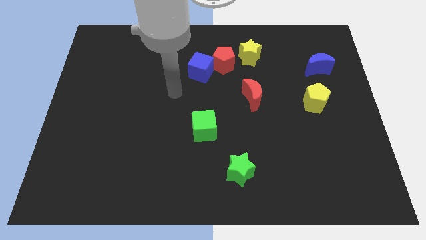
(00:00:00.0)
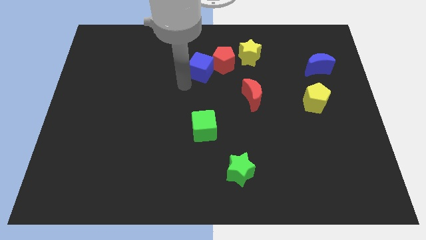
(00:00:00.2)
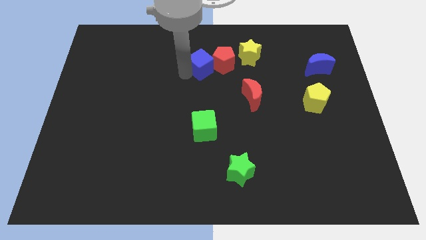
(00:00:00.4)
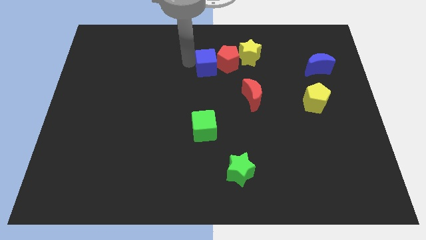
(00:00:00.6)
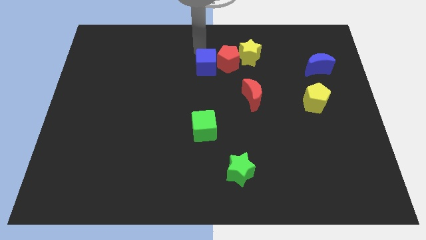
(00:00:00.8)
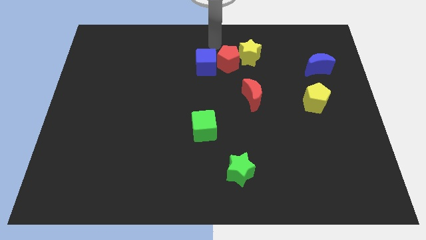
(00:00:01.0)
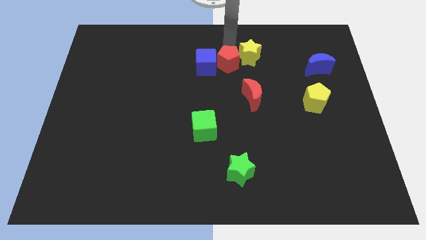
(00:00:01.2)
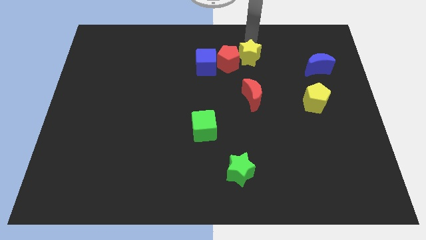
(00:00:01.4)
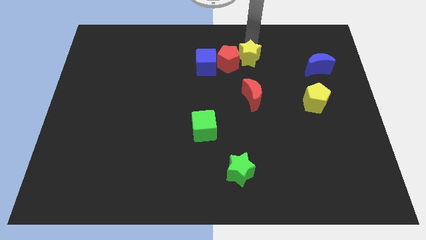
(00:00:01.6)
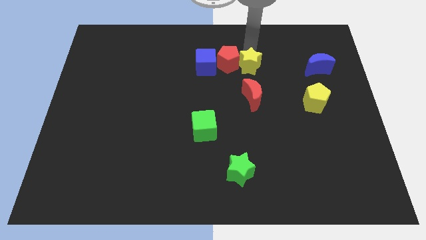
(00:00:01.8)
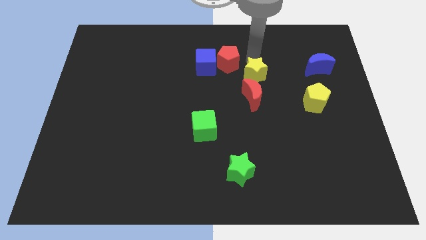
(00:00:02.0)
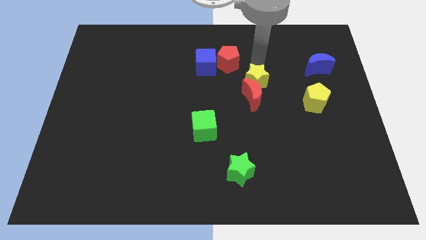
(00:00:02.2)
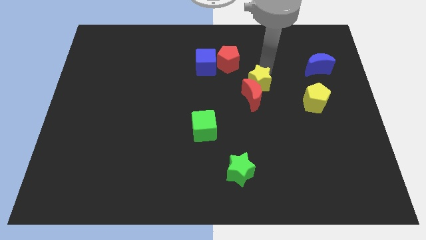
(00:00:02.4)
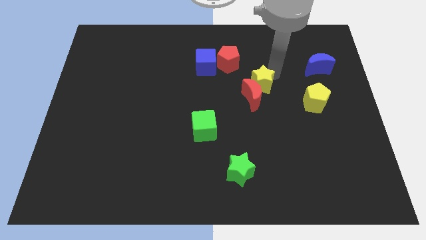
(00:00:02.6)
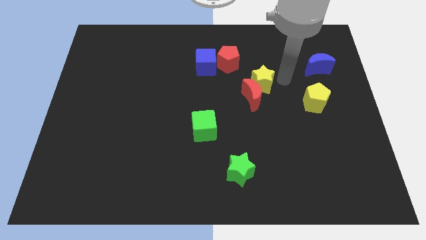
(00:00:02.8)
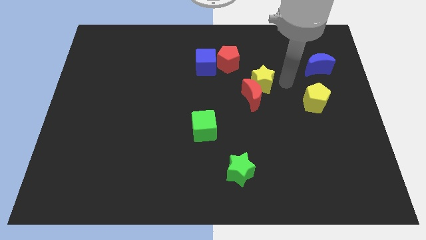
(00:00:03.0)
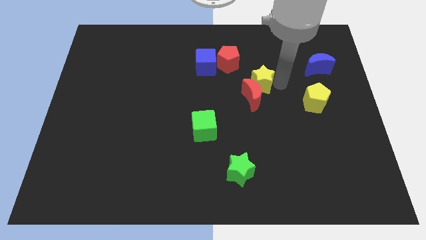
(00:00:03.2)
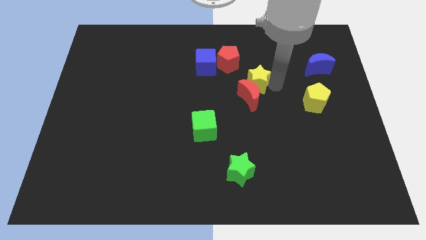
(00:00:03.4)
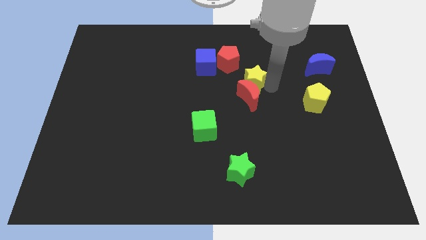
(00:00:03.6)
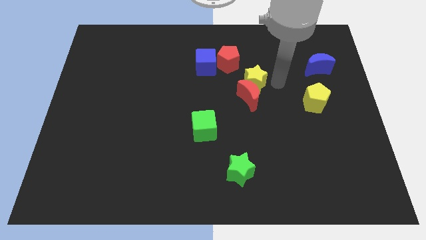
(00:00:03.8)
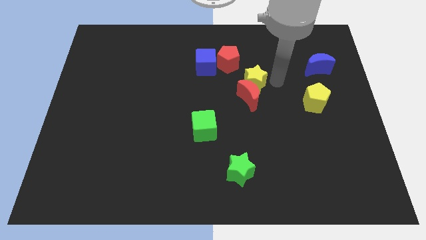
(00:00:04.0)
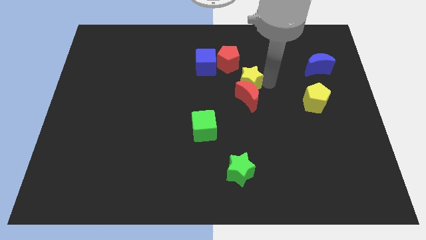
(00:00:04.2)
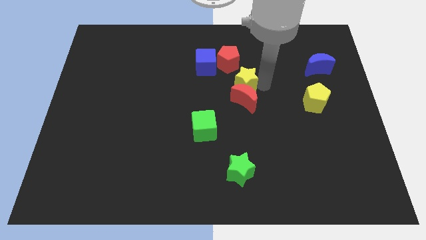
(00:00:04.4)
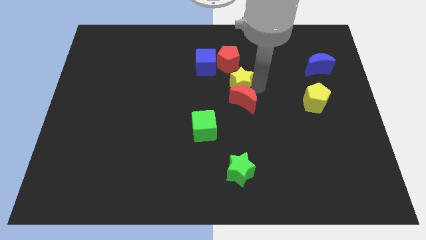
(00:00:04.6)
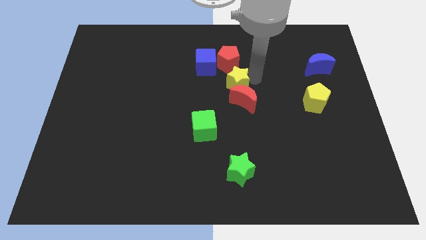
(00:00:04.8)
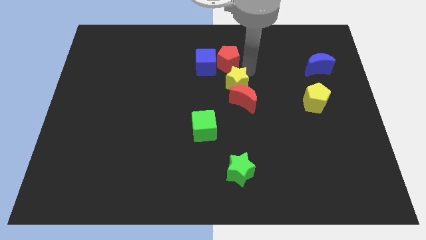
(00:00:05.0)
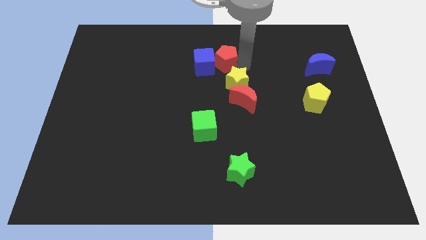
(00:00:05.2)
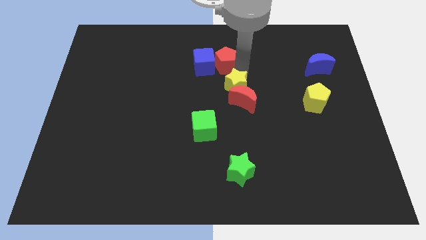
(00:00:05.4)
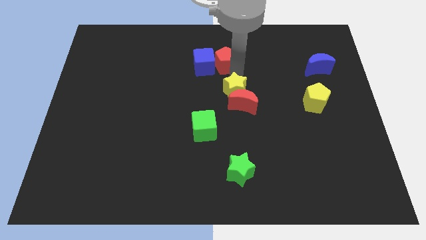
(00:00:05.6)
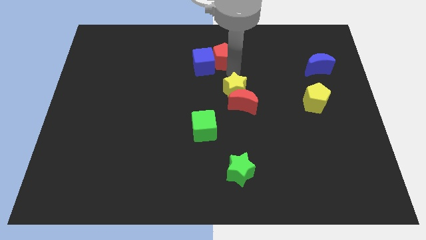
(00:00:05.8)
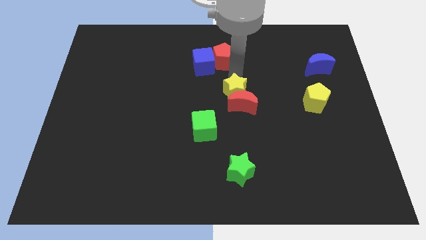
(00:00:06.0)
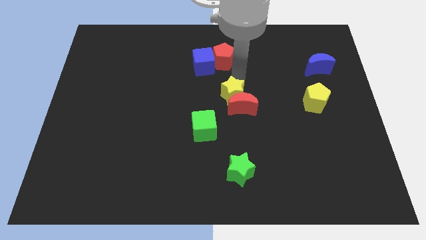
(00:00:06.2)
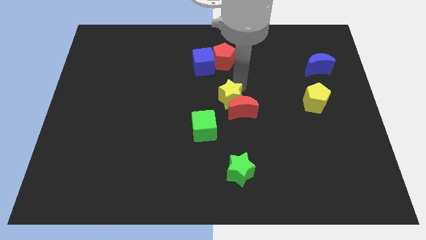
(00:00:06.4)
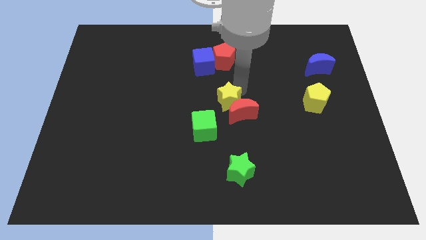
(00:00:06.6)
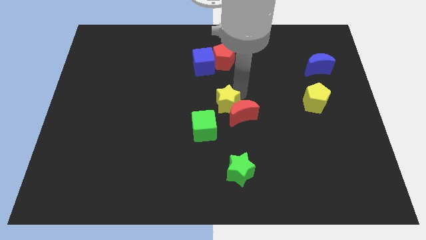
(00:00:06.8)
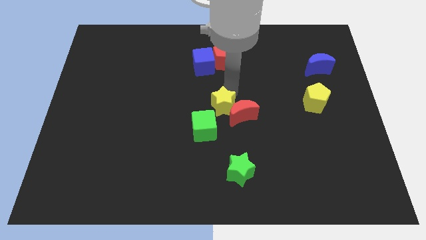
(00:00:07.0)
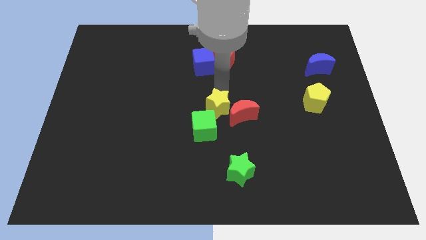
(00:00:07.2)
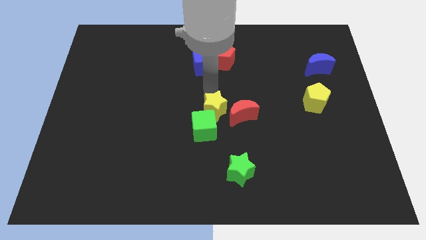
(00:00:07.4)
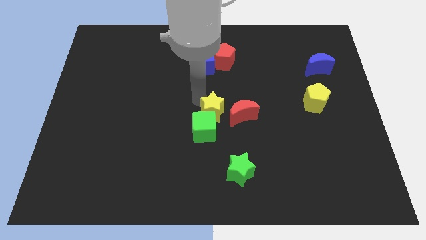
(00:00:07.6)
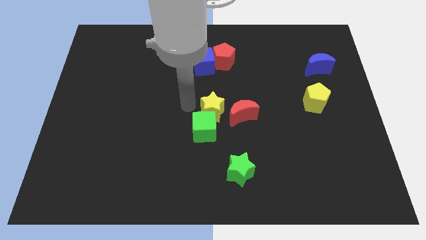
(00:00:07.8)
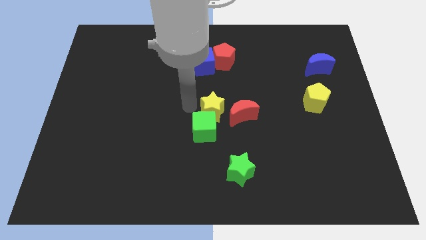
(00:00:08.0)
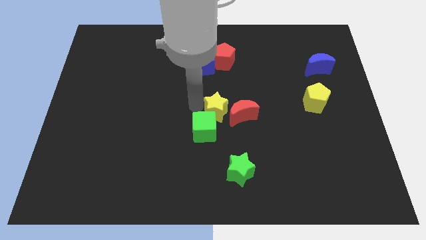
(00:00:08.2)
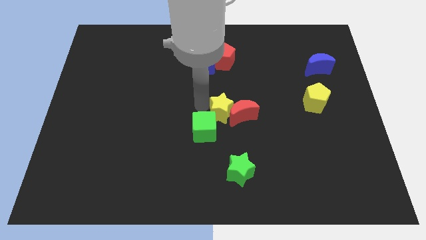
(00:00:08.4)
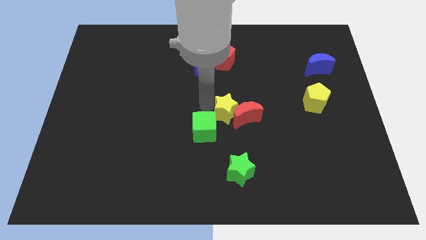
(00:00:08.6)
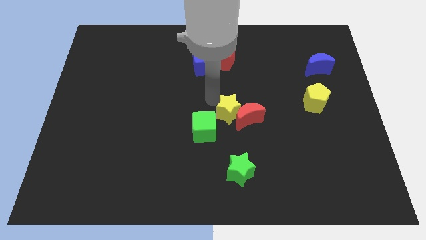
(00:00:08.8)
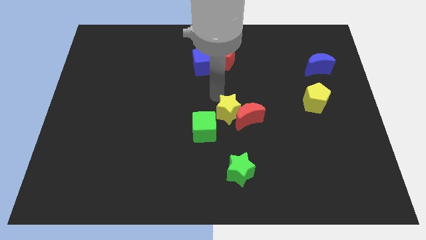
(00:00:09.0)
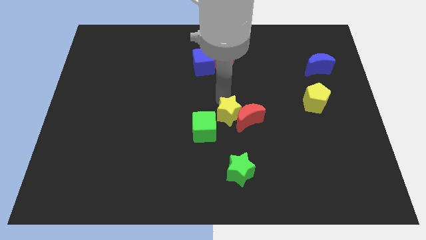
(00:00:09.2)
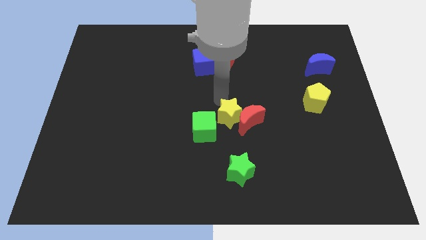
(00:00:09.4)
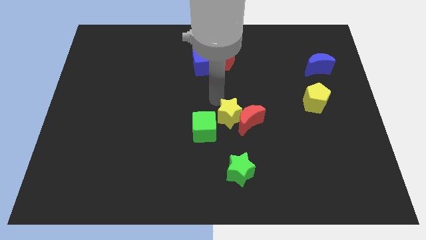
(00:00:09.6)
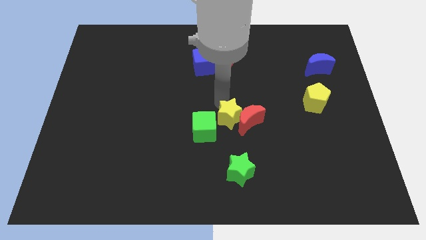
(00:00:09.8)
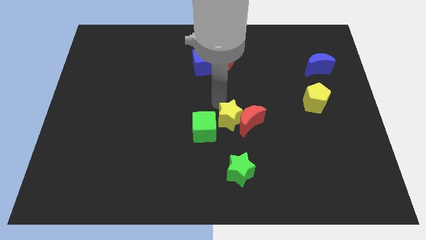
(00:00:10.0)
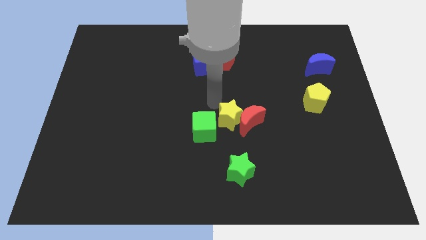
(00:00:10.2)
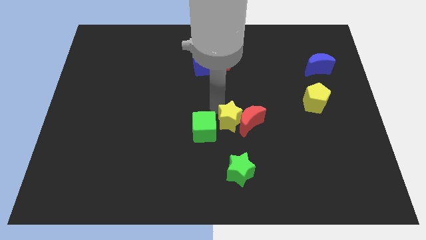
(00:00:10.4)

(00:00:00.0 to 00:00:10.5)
slide the yellow star down

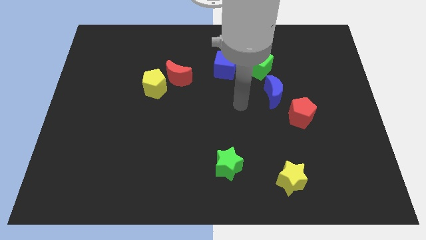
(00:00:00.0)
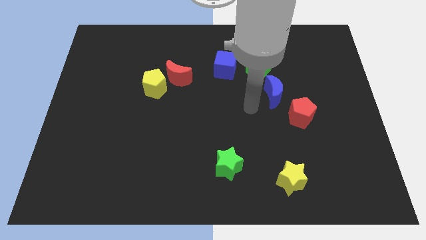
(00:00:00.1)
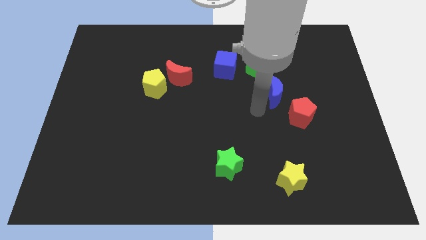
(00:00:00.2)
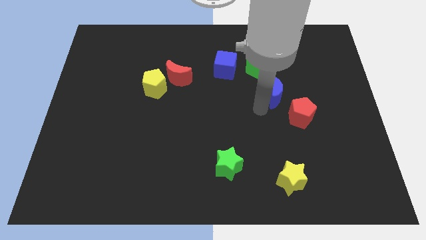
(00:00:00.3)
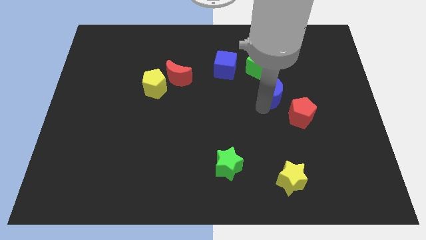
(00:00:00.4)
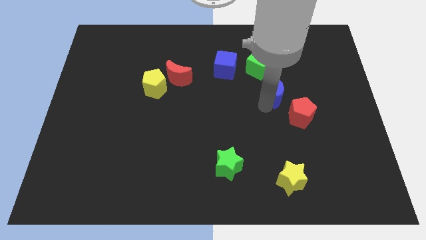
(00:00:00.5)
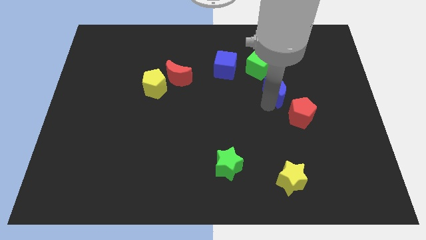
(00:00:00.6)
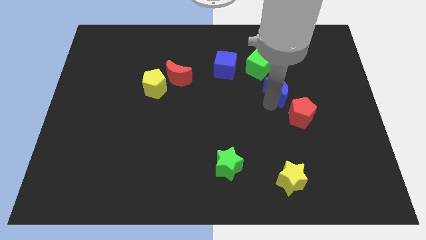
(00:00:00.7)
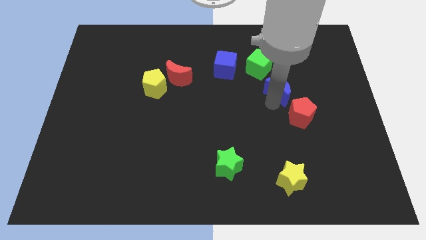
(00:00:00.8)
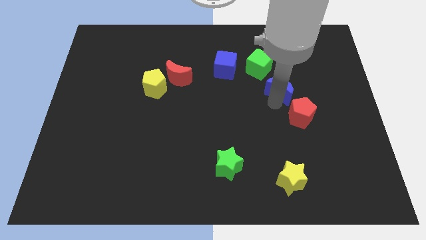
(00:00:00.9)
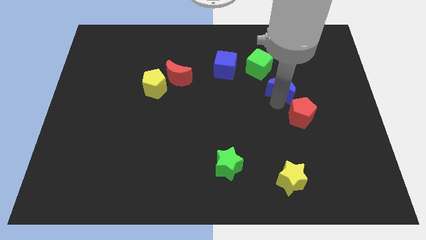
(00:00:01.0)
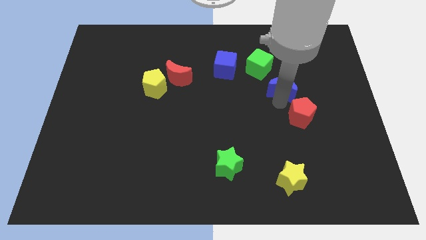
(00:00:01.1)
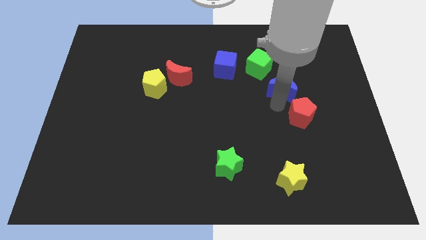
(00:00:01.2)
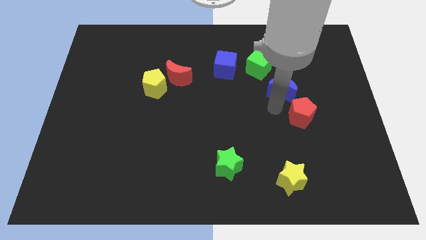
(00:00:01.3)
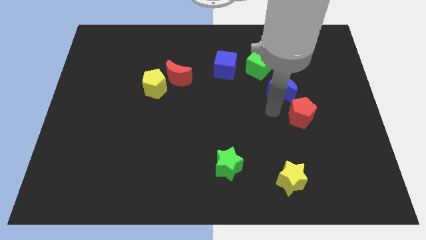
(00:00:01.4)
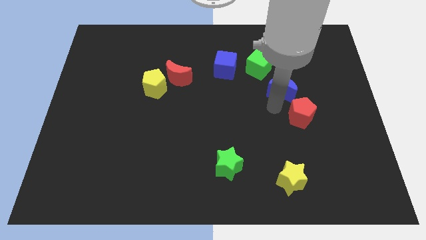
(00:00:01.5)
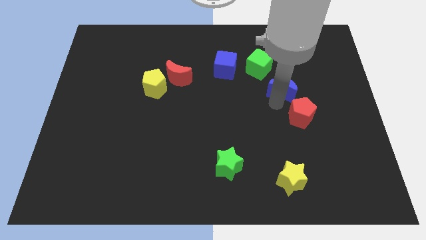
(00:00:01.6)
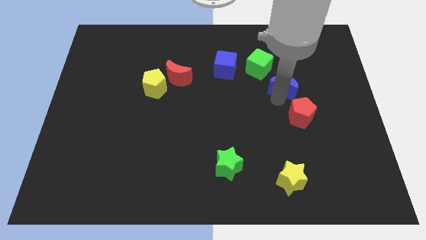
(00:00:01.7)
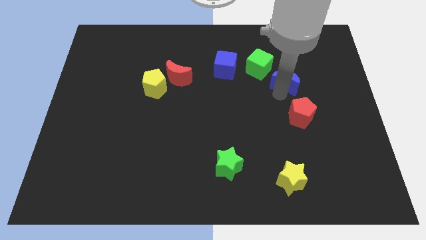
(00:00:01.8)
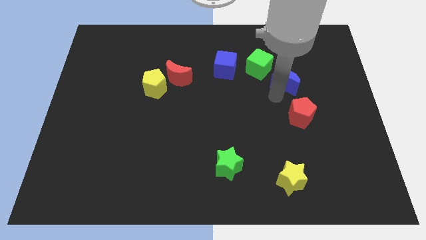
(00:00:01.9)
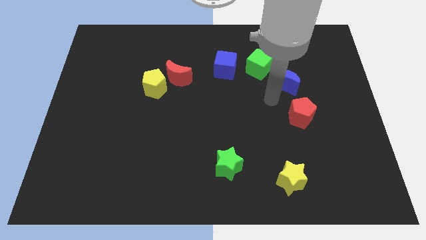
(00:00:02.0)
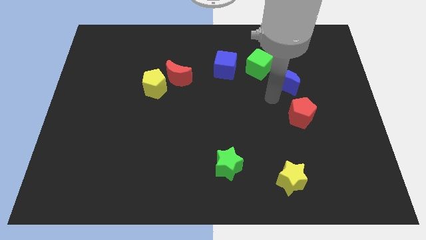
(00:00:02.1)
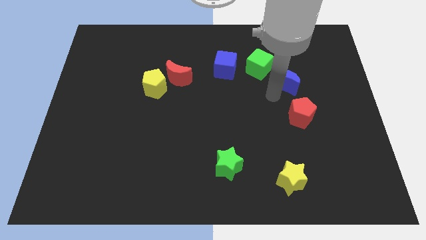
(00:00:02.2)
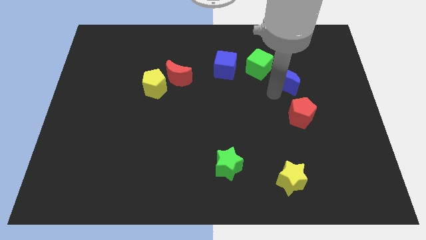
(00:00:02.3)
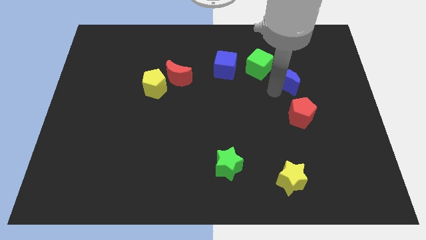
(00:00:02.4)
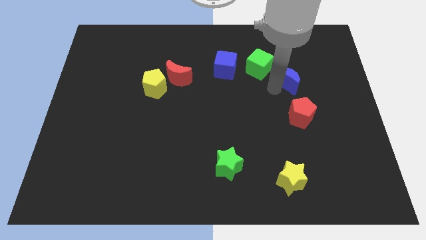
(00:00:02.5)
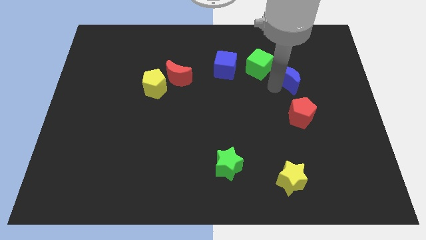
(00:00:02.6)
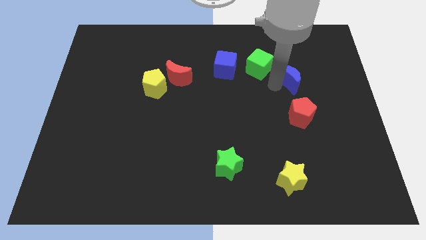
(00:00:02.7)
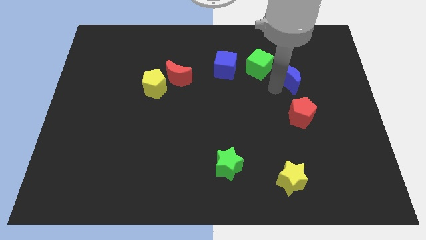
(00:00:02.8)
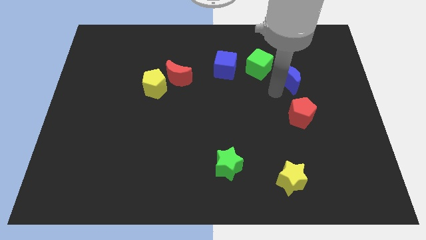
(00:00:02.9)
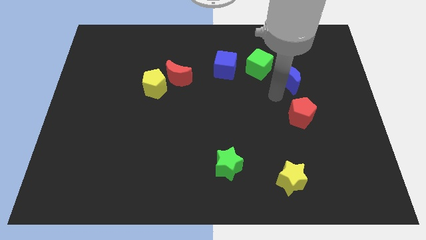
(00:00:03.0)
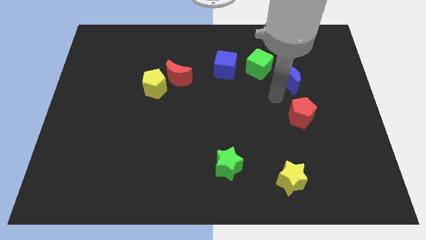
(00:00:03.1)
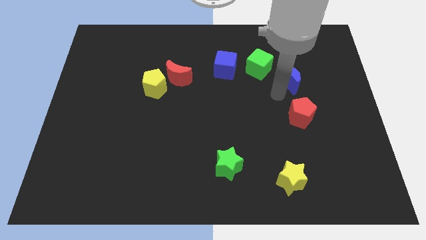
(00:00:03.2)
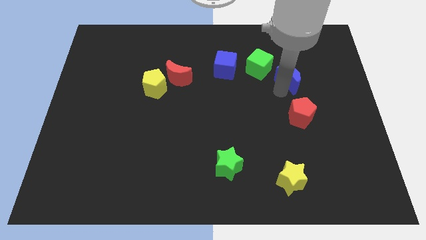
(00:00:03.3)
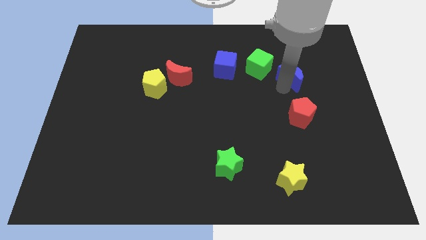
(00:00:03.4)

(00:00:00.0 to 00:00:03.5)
slightly move the blue moon diagonally upwards and right
